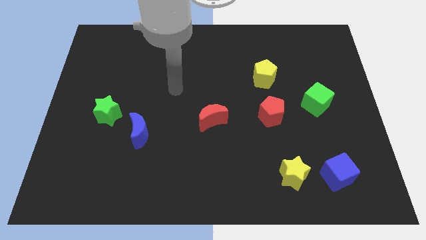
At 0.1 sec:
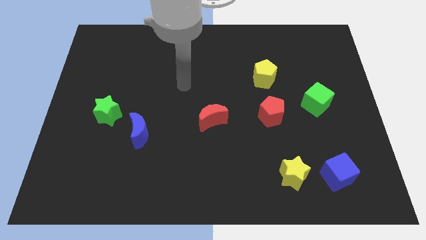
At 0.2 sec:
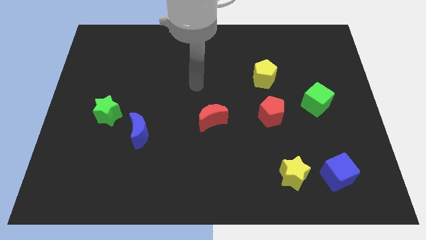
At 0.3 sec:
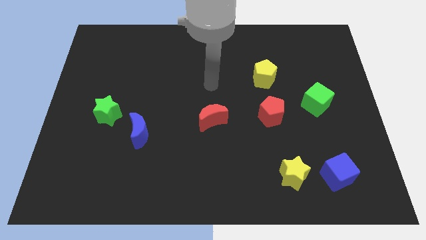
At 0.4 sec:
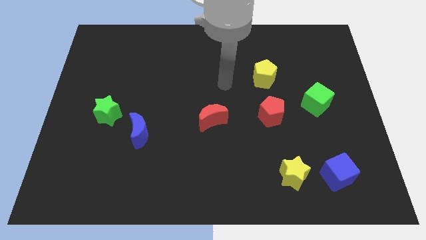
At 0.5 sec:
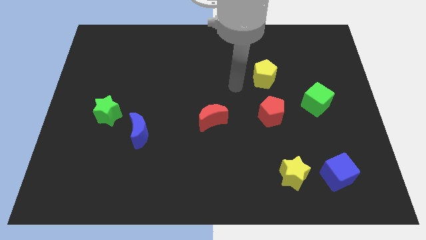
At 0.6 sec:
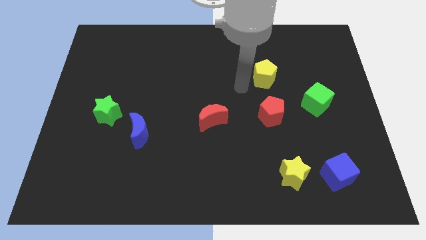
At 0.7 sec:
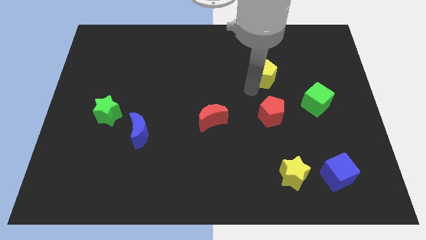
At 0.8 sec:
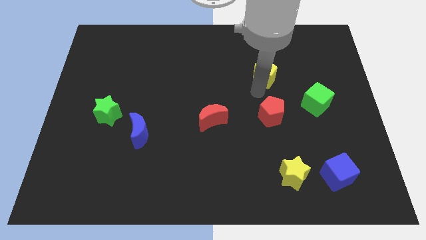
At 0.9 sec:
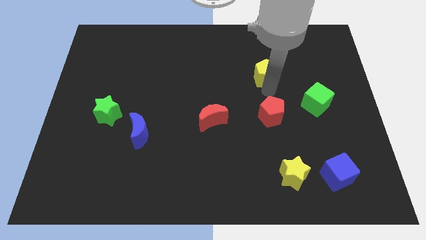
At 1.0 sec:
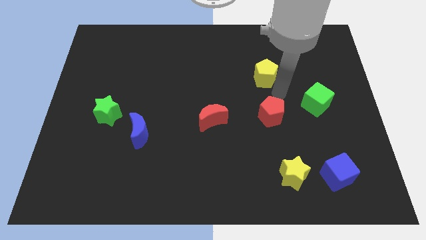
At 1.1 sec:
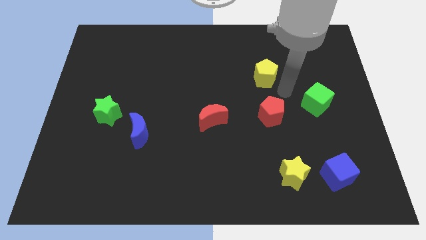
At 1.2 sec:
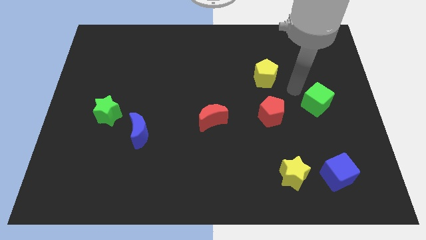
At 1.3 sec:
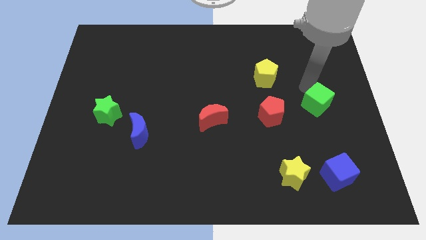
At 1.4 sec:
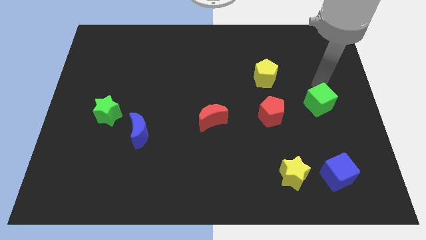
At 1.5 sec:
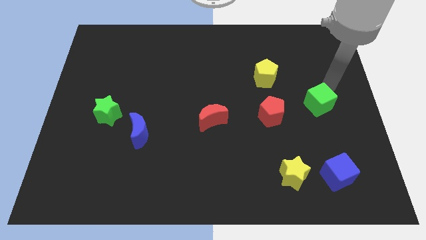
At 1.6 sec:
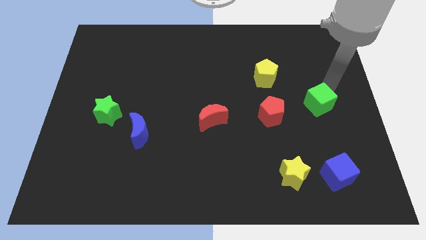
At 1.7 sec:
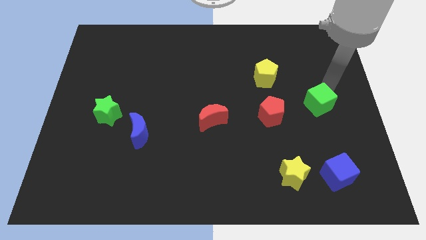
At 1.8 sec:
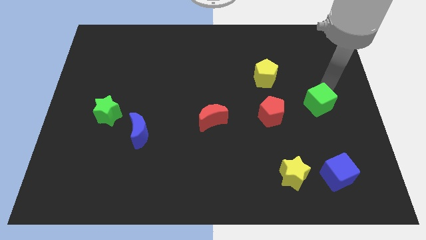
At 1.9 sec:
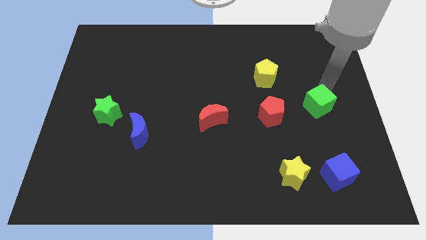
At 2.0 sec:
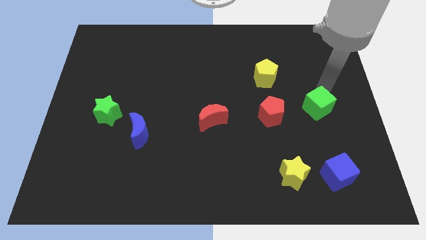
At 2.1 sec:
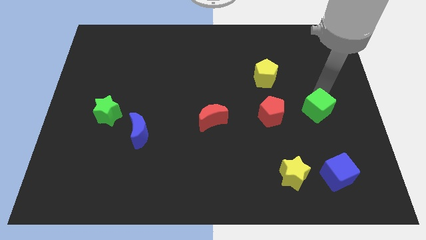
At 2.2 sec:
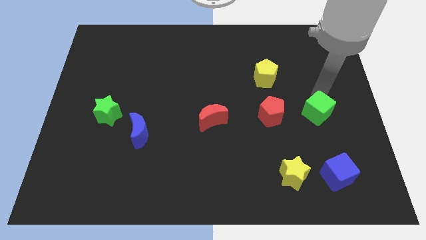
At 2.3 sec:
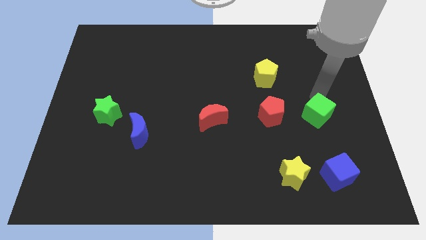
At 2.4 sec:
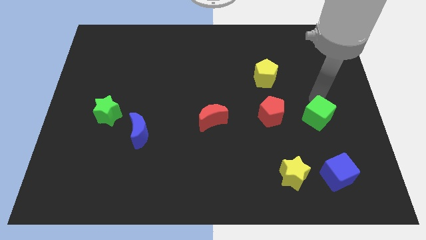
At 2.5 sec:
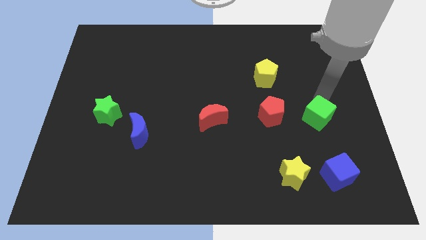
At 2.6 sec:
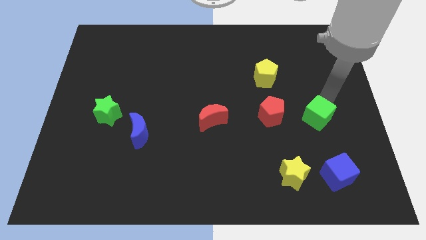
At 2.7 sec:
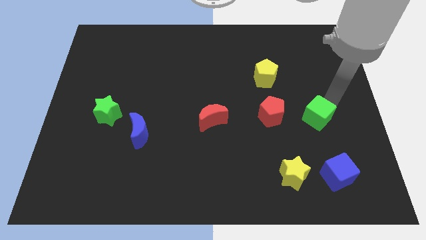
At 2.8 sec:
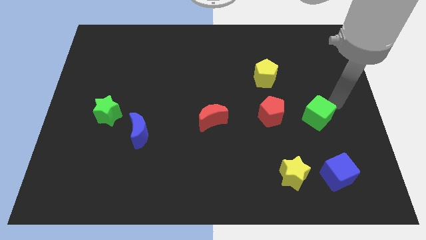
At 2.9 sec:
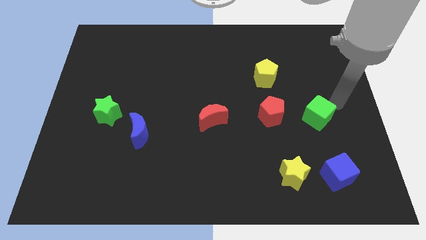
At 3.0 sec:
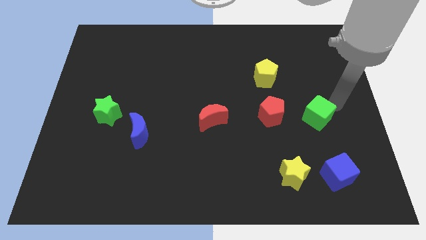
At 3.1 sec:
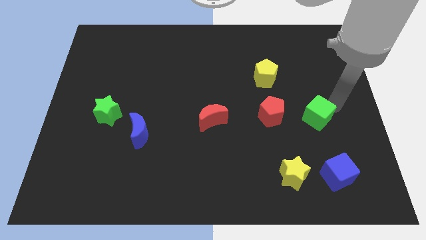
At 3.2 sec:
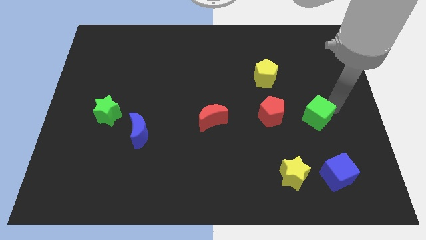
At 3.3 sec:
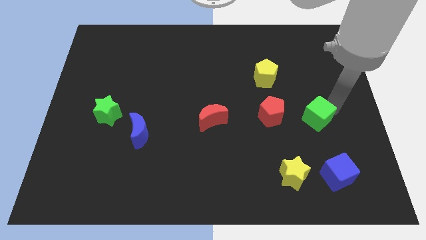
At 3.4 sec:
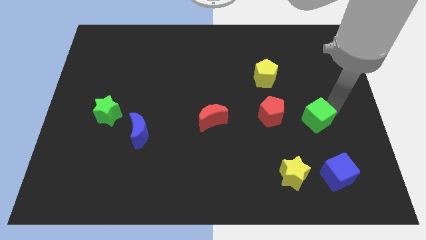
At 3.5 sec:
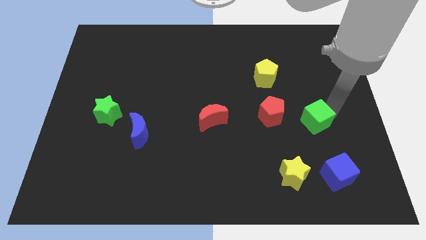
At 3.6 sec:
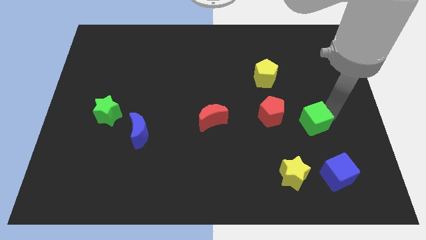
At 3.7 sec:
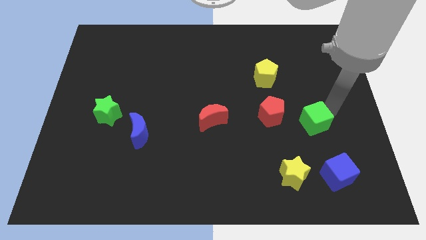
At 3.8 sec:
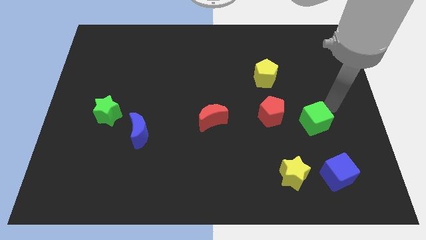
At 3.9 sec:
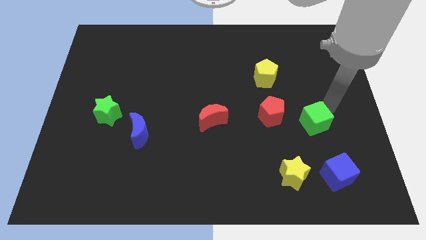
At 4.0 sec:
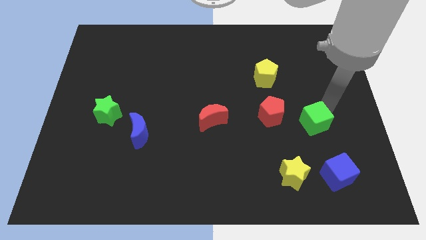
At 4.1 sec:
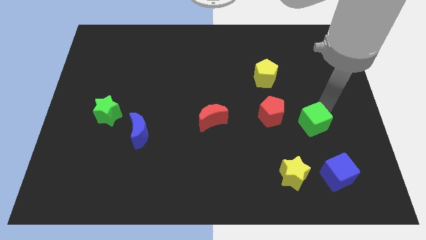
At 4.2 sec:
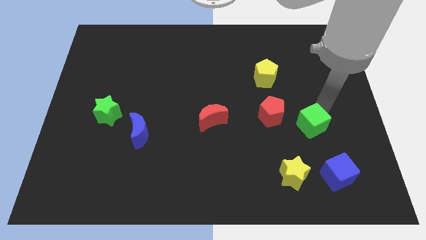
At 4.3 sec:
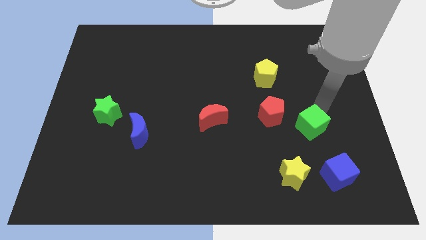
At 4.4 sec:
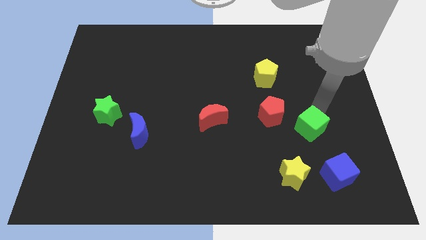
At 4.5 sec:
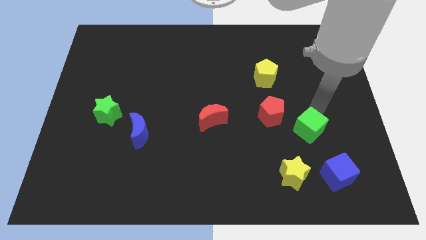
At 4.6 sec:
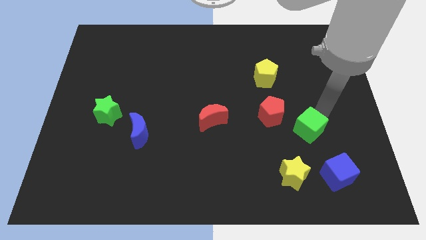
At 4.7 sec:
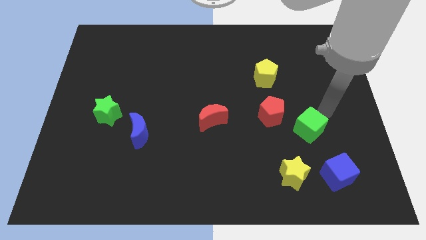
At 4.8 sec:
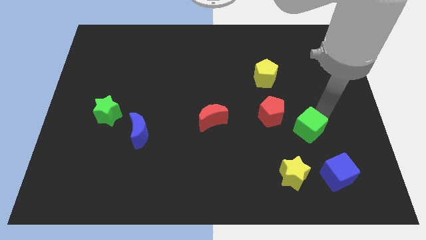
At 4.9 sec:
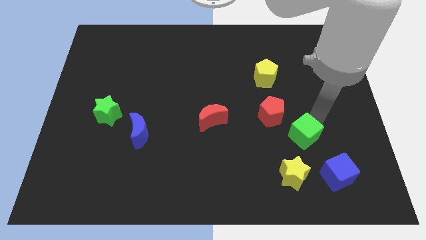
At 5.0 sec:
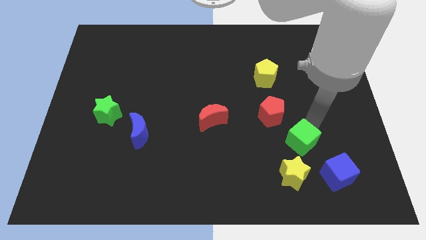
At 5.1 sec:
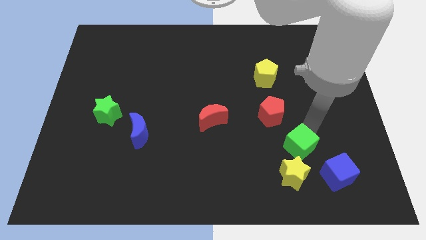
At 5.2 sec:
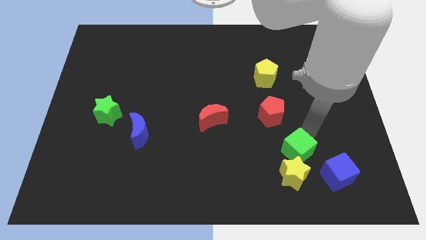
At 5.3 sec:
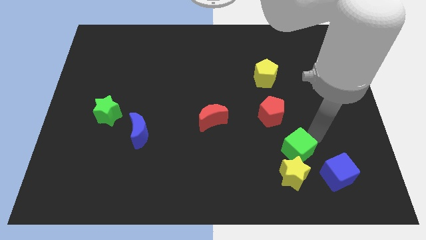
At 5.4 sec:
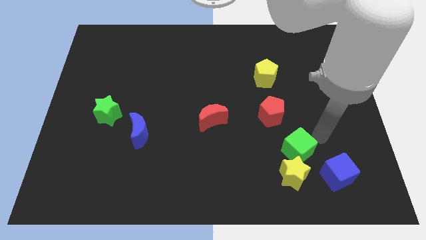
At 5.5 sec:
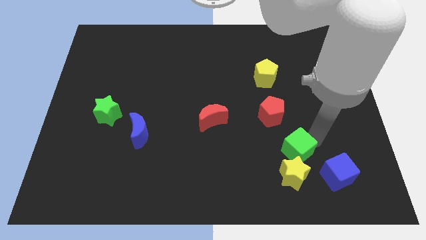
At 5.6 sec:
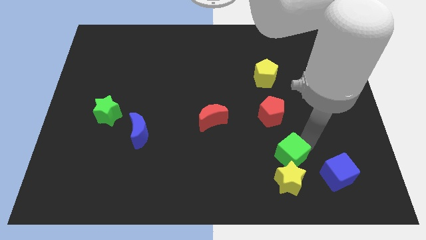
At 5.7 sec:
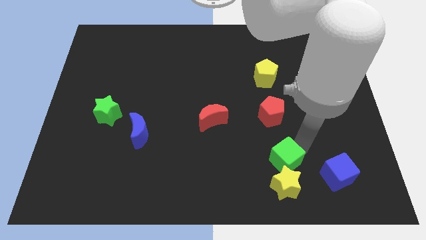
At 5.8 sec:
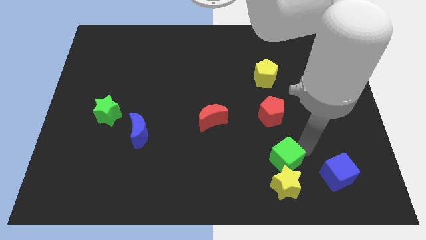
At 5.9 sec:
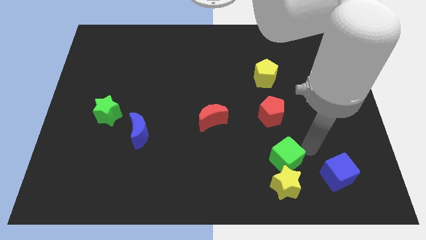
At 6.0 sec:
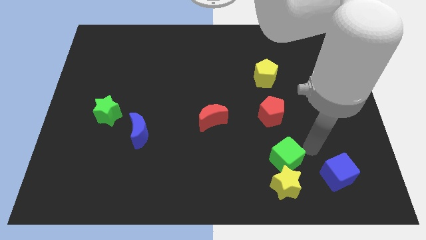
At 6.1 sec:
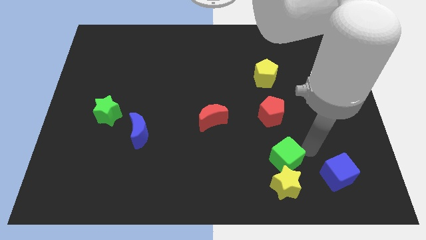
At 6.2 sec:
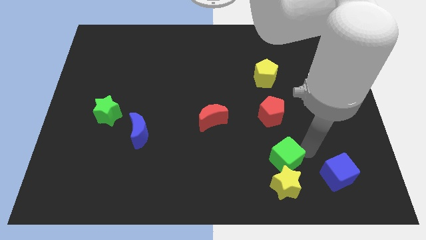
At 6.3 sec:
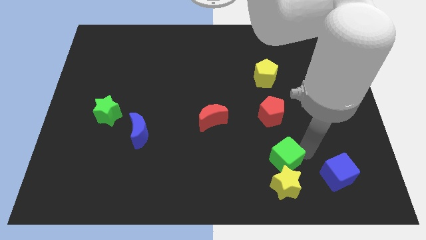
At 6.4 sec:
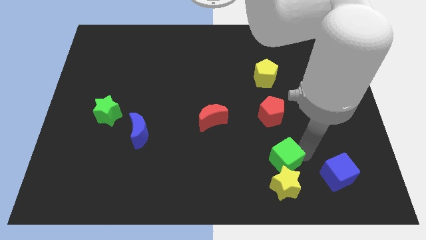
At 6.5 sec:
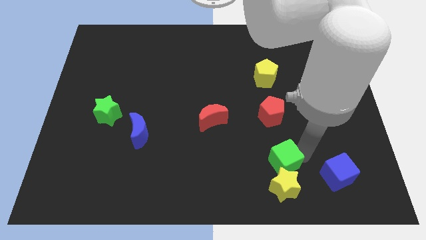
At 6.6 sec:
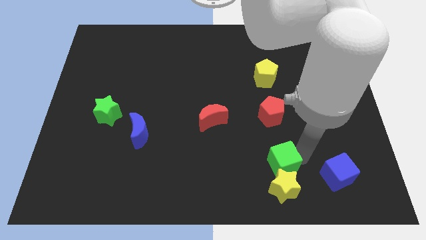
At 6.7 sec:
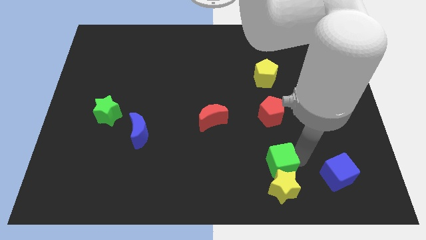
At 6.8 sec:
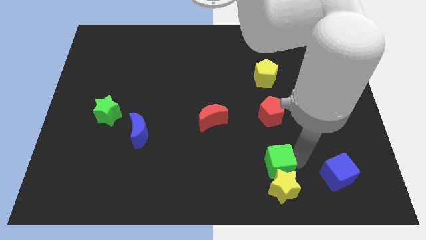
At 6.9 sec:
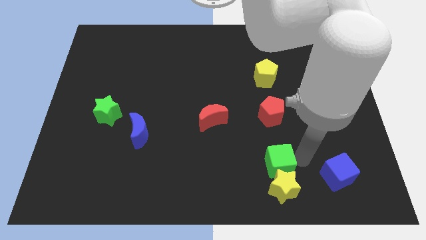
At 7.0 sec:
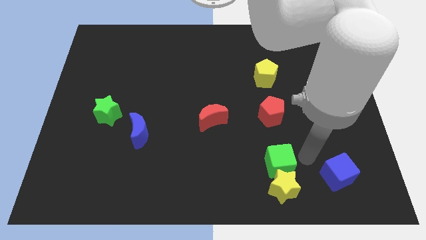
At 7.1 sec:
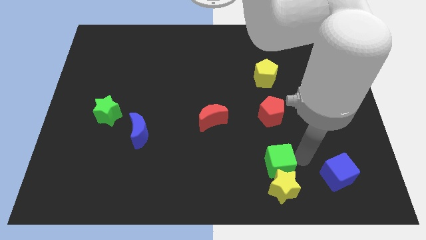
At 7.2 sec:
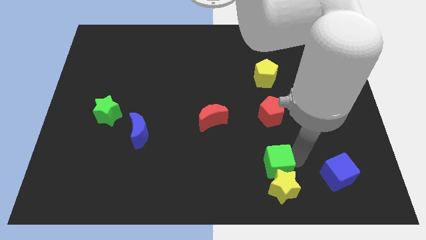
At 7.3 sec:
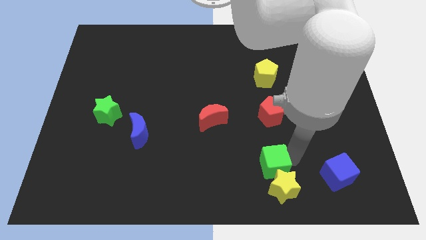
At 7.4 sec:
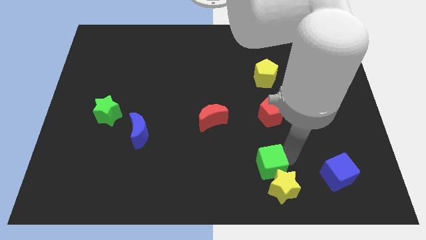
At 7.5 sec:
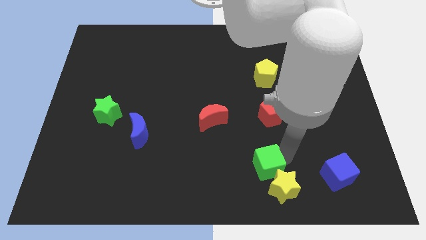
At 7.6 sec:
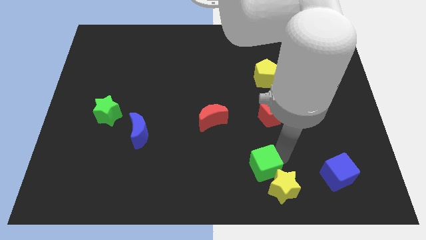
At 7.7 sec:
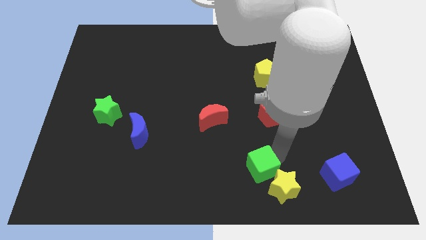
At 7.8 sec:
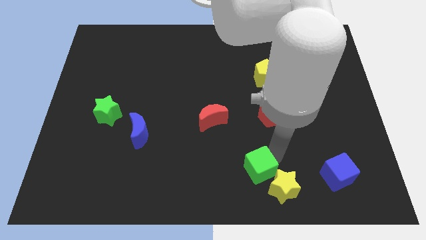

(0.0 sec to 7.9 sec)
move the green cube to the bottom side
